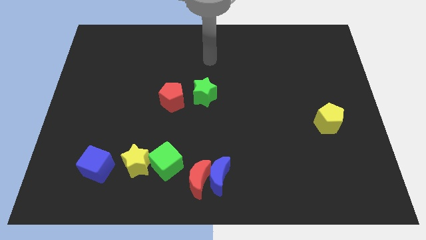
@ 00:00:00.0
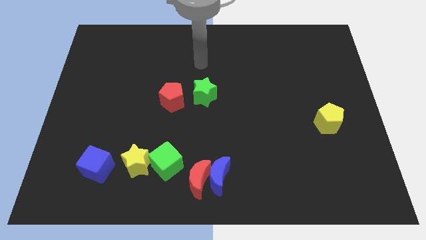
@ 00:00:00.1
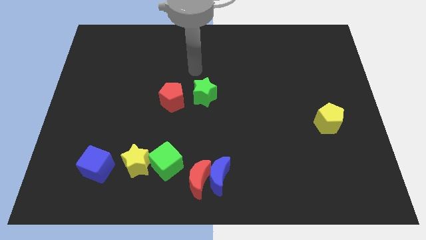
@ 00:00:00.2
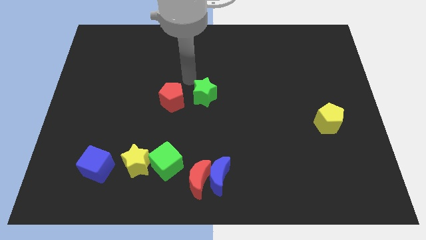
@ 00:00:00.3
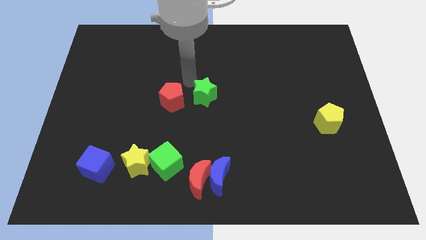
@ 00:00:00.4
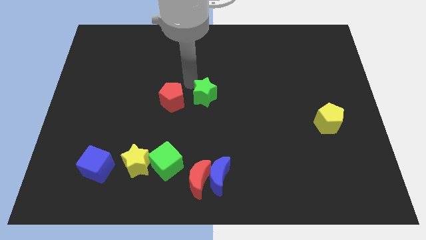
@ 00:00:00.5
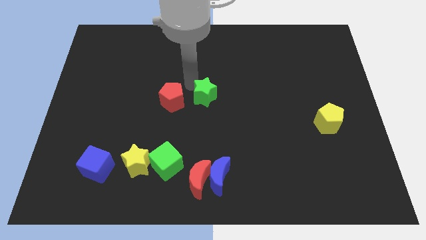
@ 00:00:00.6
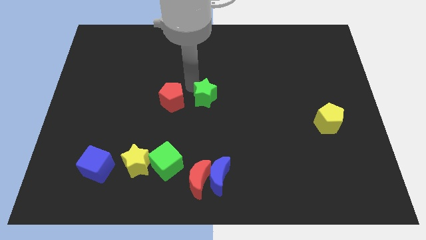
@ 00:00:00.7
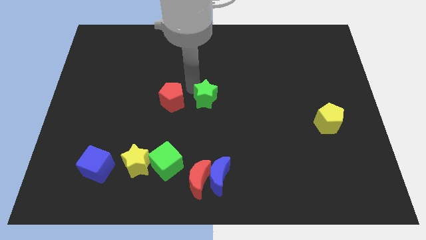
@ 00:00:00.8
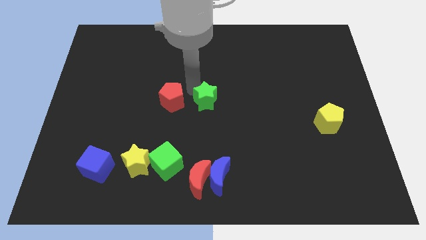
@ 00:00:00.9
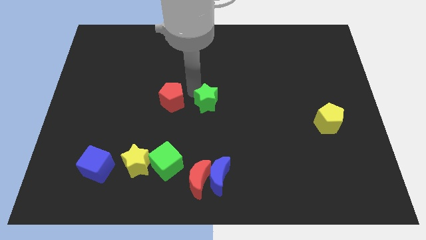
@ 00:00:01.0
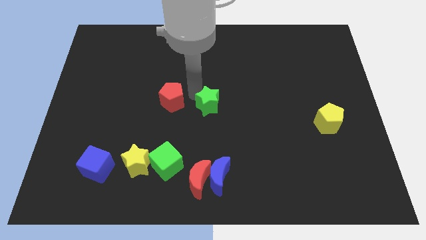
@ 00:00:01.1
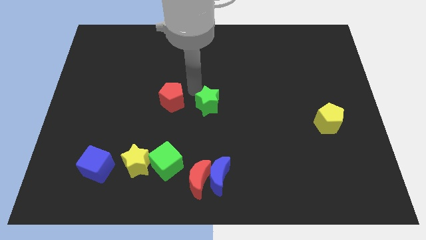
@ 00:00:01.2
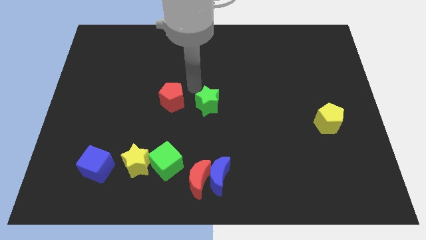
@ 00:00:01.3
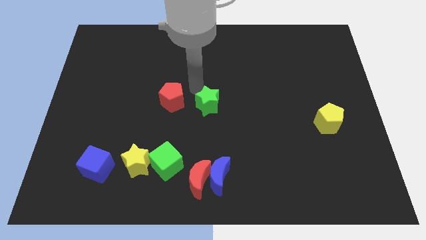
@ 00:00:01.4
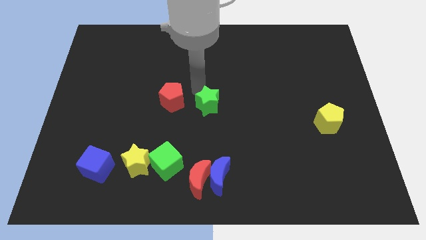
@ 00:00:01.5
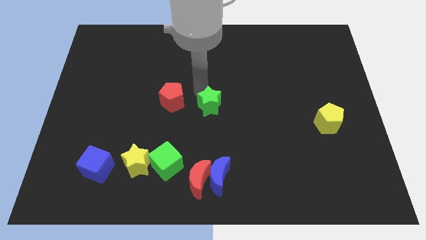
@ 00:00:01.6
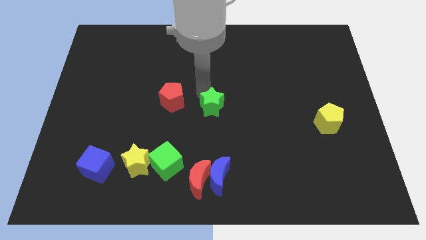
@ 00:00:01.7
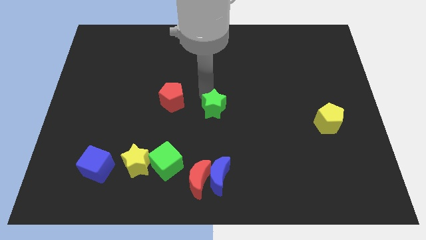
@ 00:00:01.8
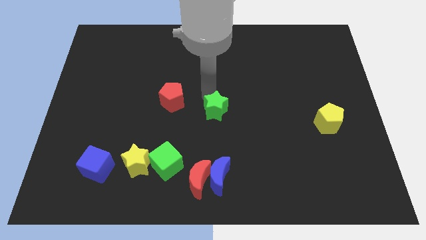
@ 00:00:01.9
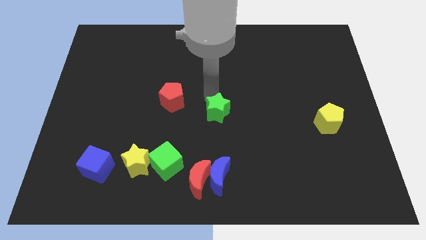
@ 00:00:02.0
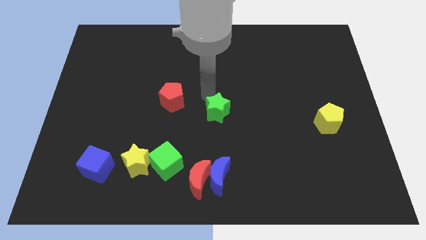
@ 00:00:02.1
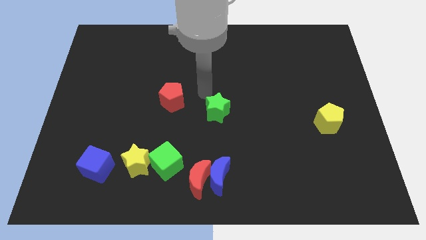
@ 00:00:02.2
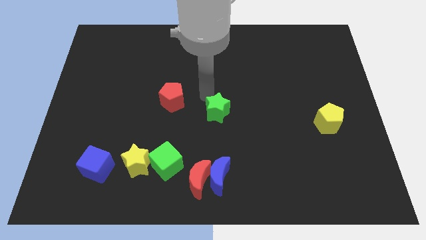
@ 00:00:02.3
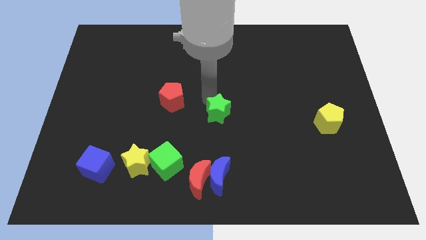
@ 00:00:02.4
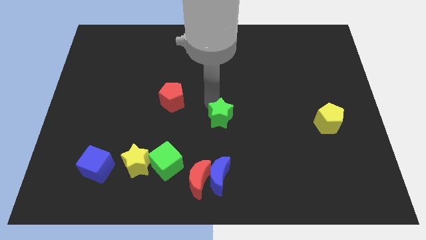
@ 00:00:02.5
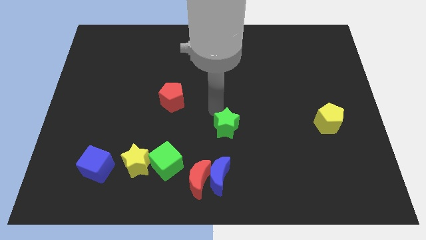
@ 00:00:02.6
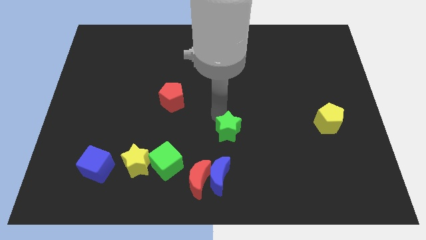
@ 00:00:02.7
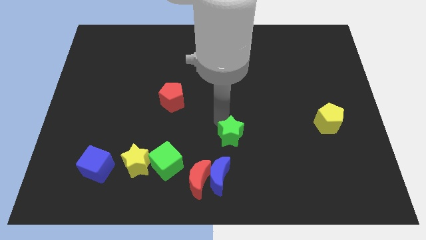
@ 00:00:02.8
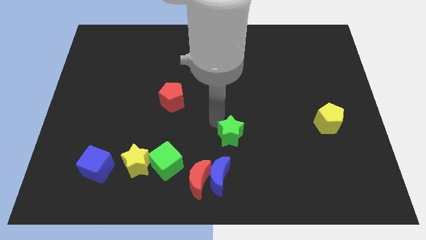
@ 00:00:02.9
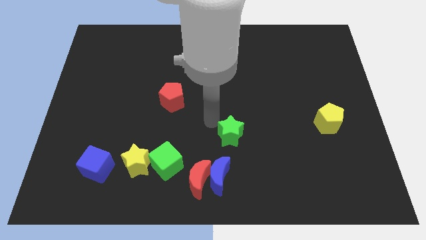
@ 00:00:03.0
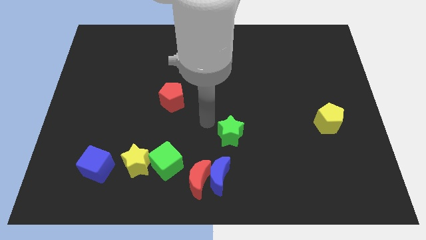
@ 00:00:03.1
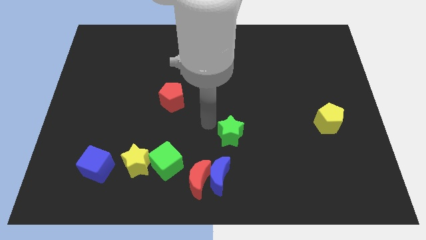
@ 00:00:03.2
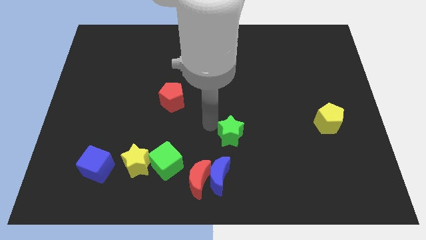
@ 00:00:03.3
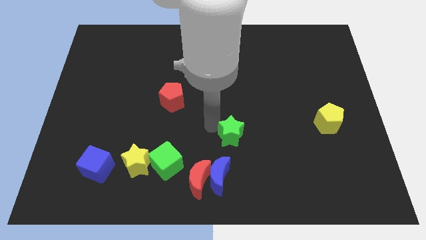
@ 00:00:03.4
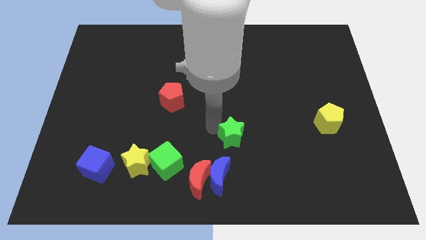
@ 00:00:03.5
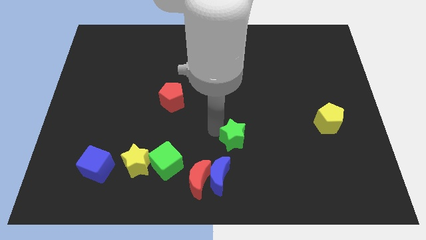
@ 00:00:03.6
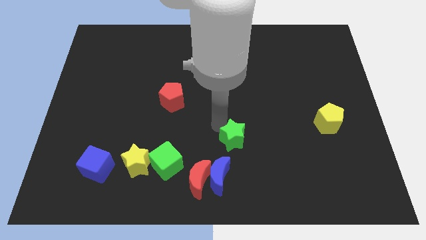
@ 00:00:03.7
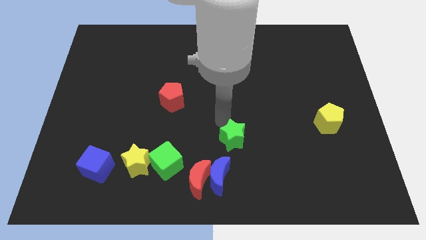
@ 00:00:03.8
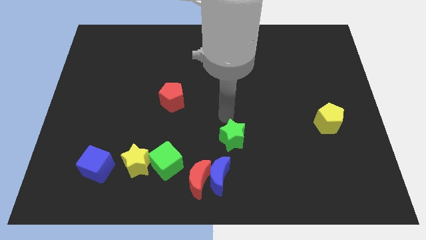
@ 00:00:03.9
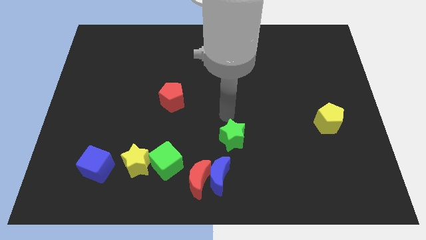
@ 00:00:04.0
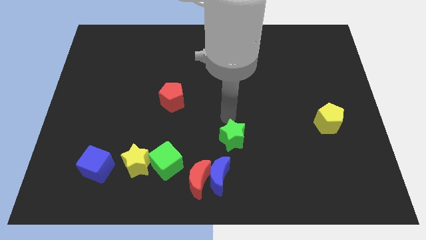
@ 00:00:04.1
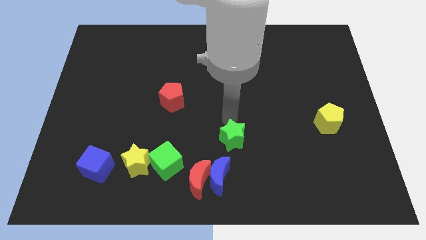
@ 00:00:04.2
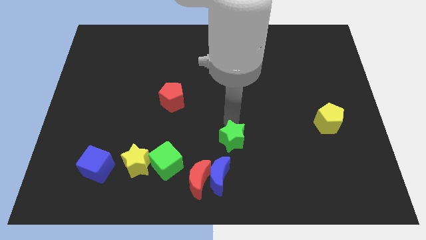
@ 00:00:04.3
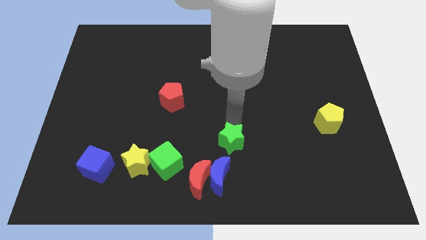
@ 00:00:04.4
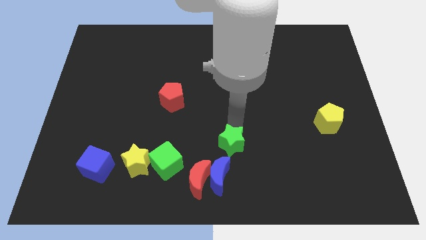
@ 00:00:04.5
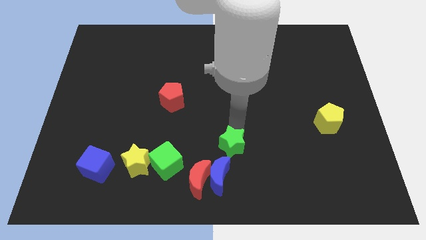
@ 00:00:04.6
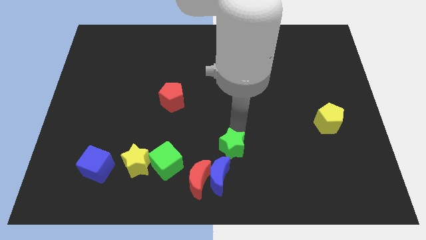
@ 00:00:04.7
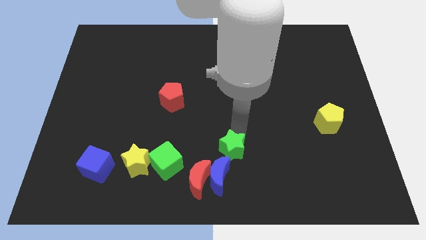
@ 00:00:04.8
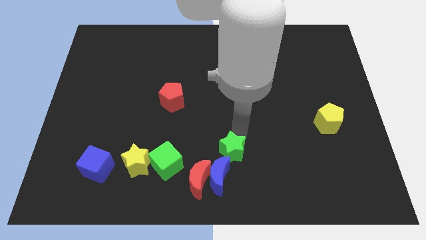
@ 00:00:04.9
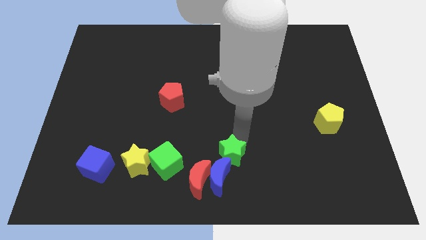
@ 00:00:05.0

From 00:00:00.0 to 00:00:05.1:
push the green star to the bottom
